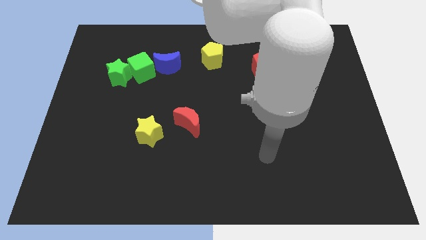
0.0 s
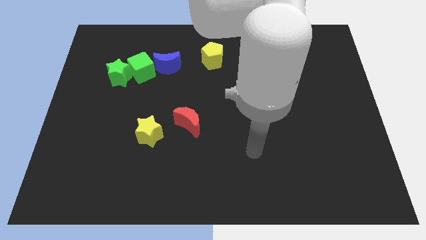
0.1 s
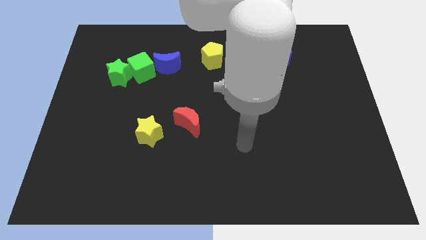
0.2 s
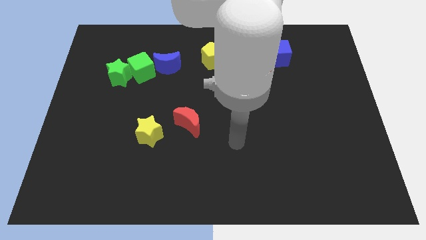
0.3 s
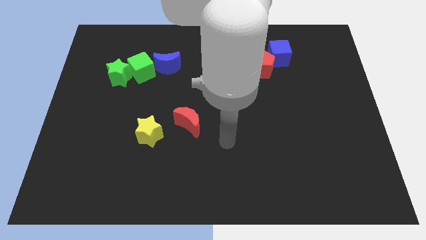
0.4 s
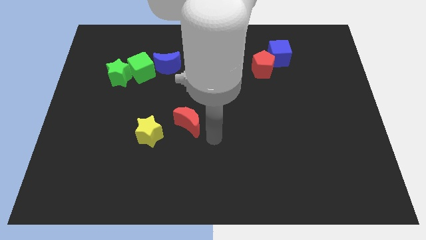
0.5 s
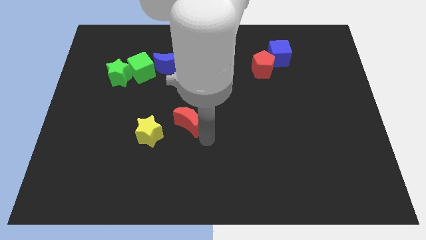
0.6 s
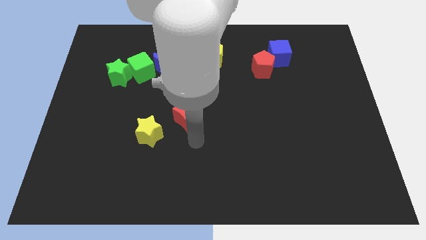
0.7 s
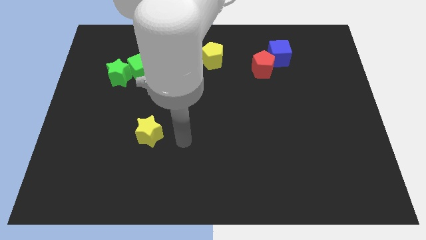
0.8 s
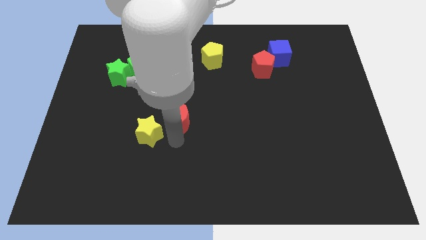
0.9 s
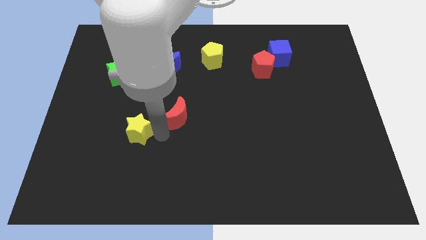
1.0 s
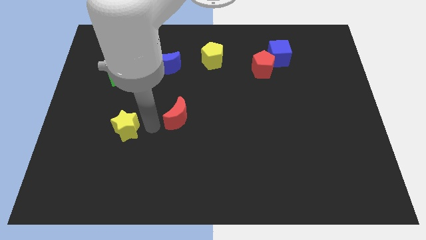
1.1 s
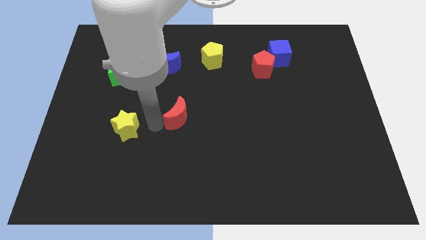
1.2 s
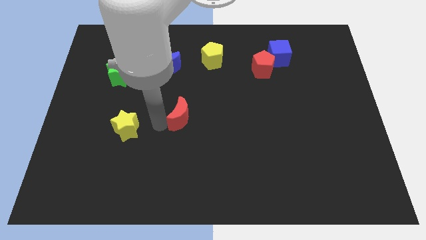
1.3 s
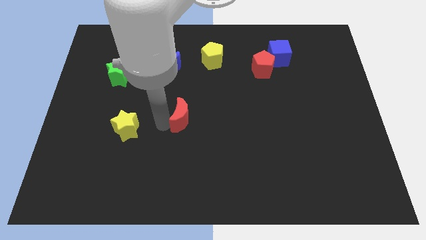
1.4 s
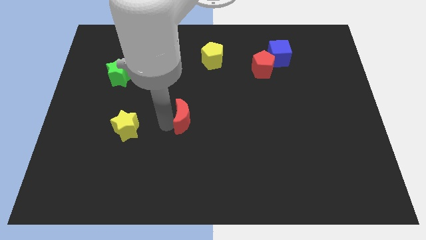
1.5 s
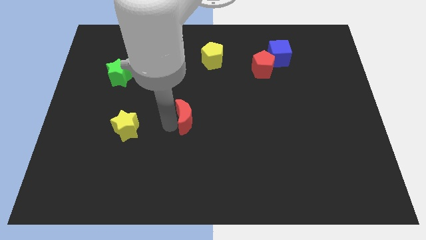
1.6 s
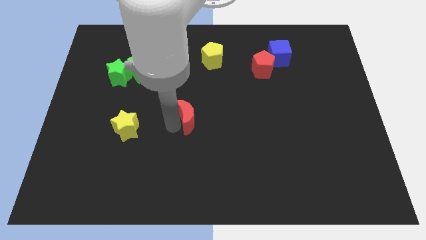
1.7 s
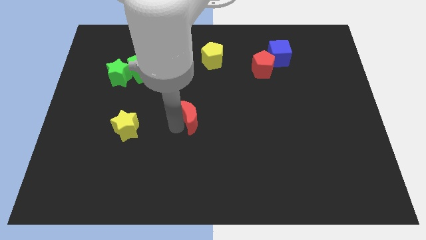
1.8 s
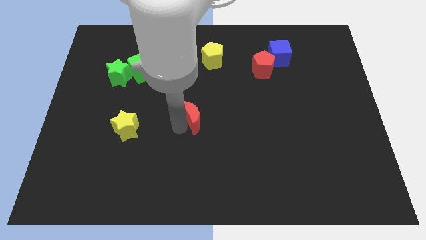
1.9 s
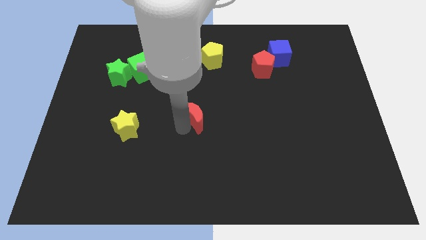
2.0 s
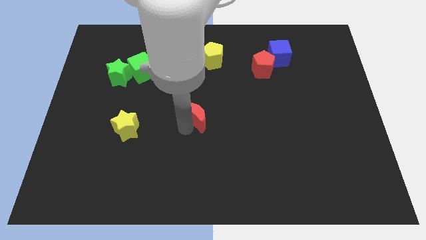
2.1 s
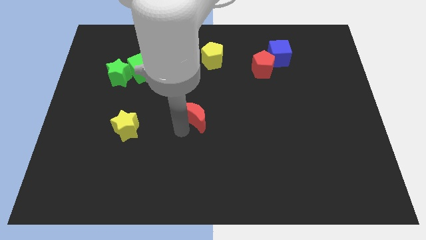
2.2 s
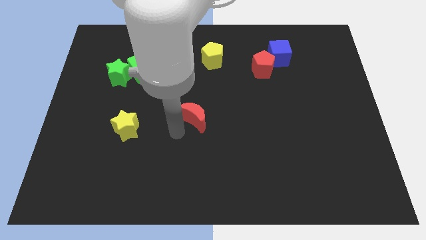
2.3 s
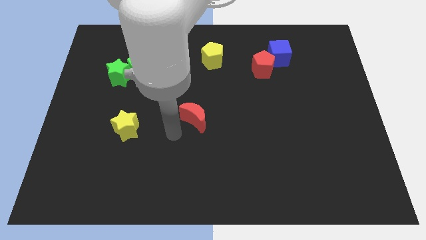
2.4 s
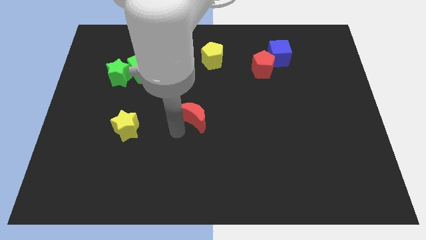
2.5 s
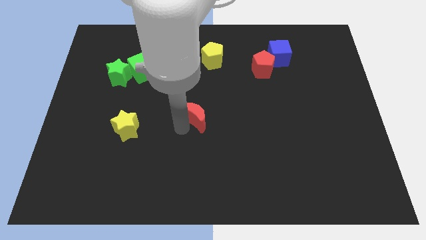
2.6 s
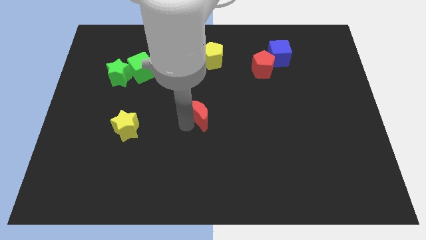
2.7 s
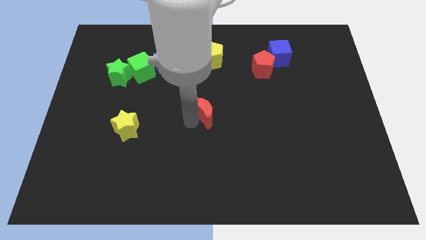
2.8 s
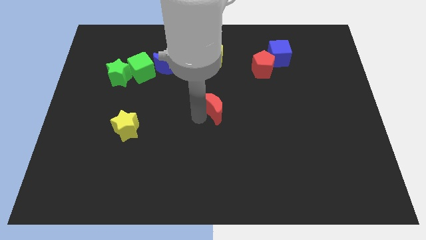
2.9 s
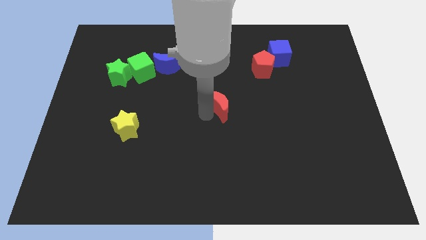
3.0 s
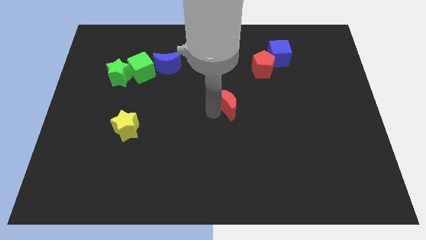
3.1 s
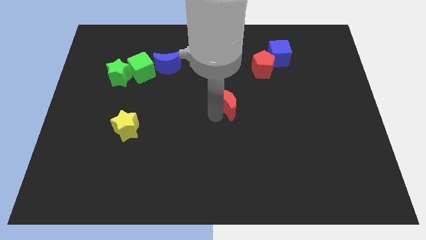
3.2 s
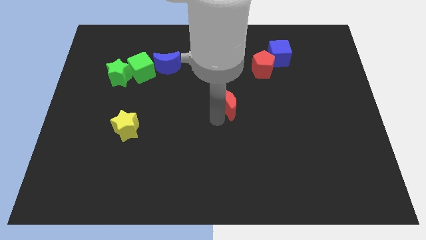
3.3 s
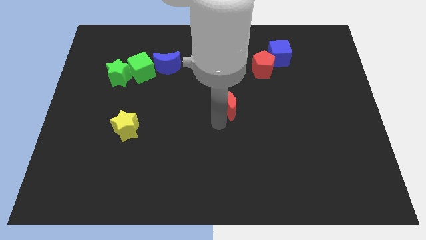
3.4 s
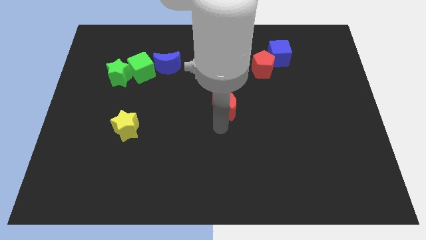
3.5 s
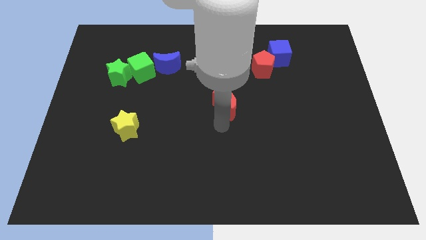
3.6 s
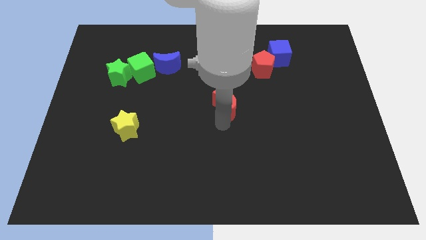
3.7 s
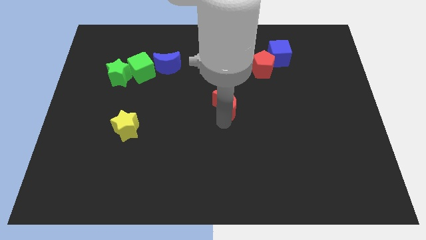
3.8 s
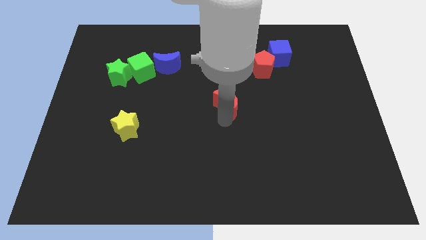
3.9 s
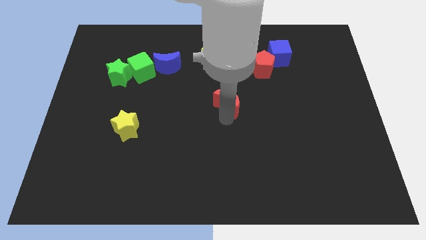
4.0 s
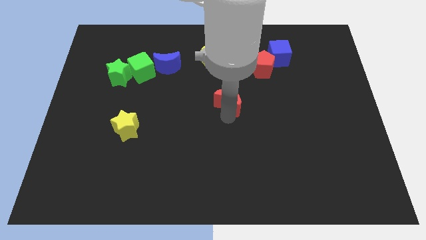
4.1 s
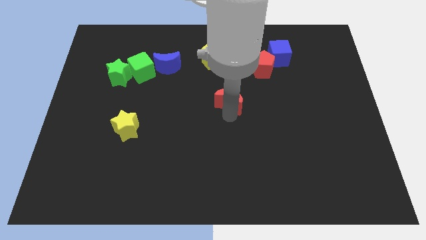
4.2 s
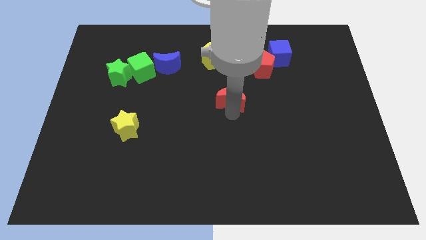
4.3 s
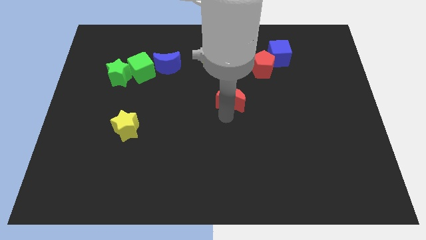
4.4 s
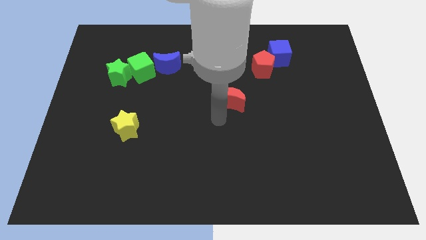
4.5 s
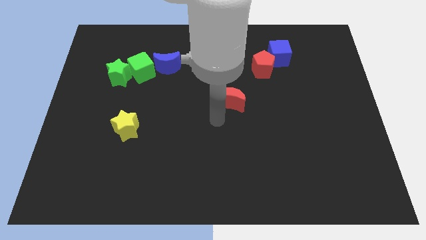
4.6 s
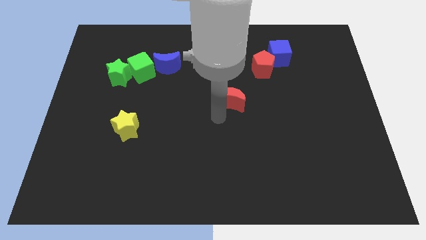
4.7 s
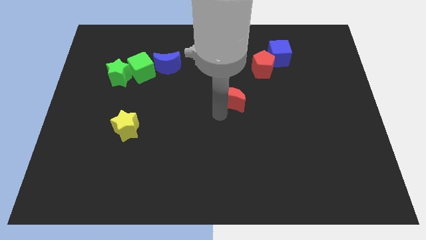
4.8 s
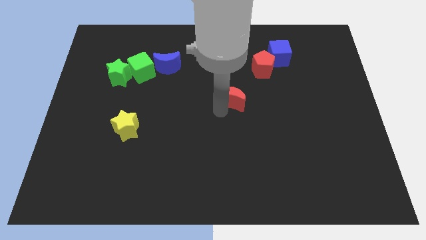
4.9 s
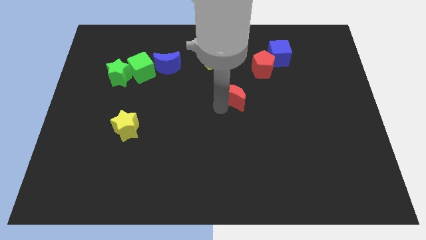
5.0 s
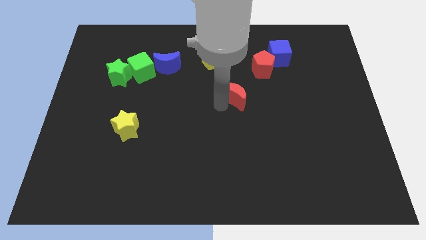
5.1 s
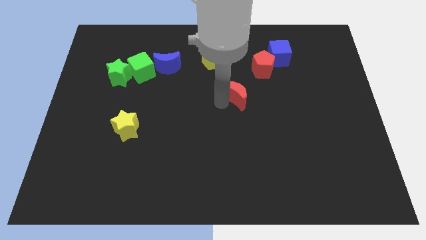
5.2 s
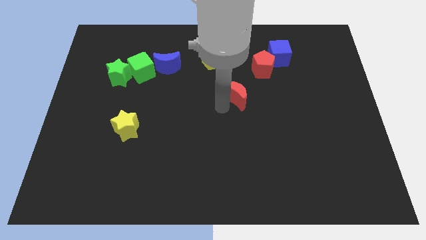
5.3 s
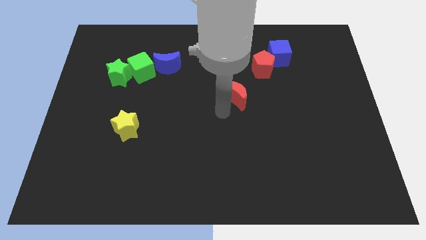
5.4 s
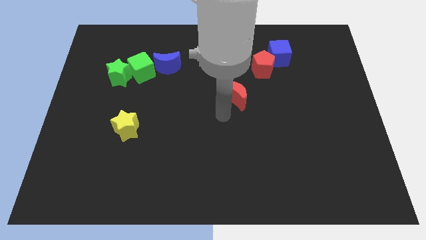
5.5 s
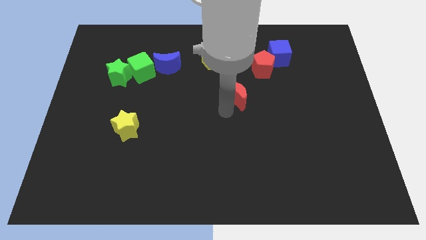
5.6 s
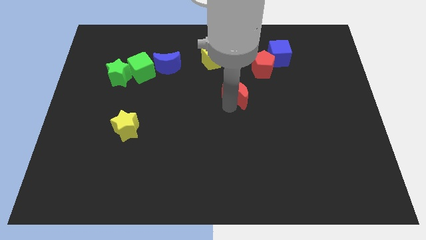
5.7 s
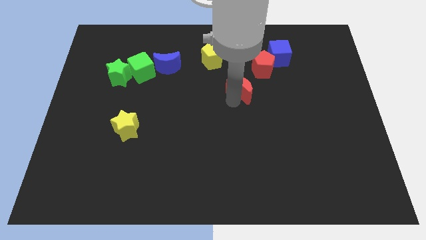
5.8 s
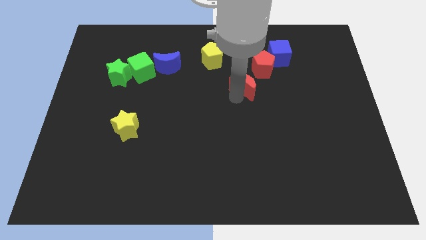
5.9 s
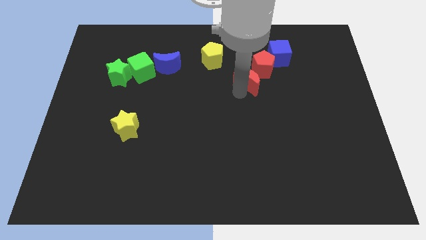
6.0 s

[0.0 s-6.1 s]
push the red moon diagonally down and to the left of the blue cube

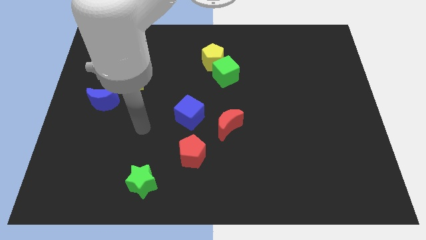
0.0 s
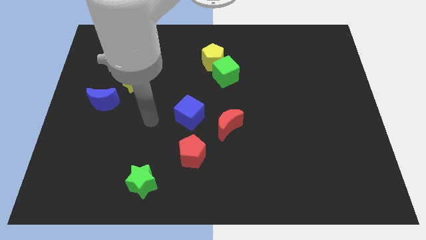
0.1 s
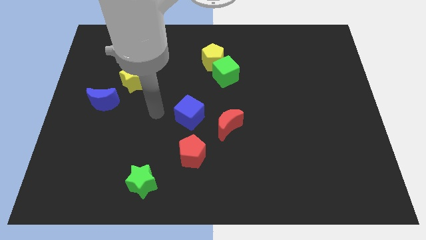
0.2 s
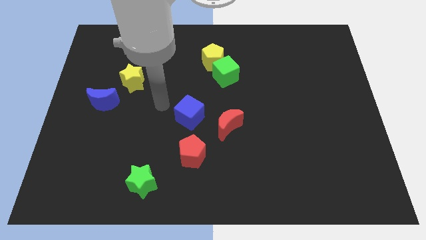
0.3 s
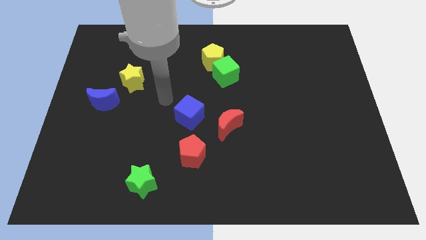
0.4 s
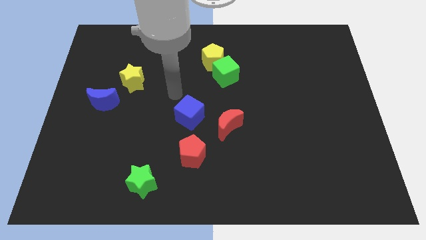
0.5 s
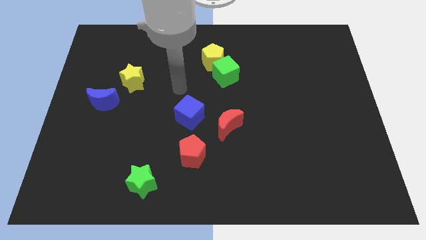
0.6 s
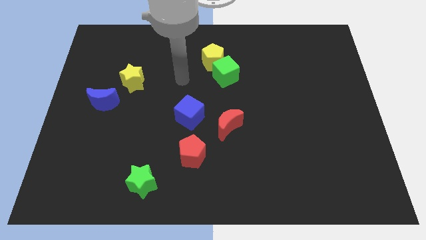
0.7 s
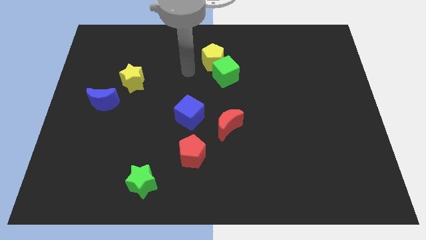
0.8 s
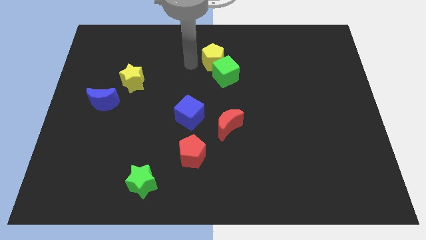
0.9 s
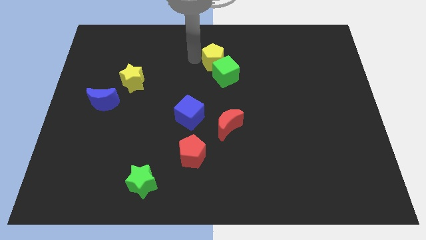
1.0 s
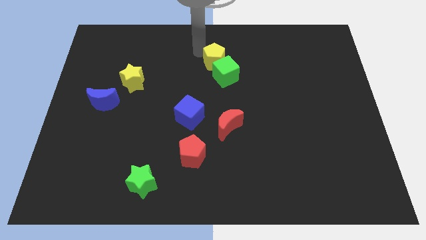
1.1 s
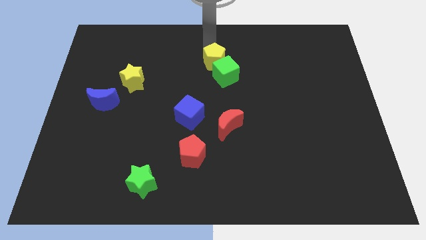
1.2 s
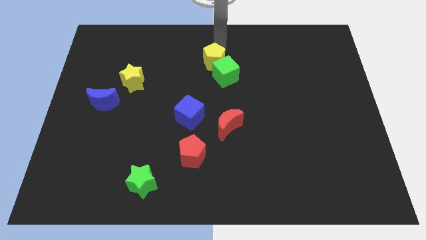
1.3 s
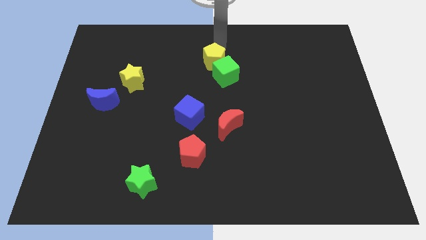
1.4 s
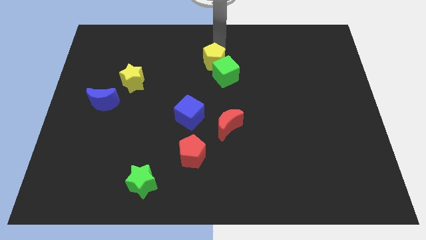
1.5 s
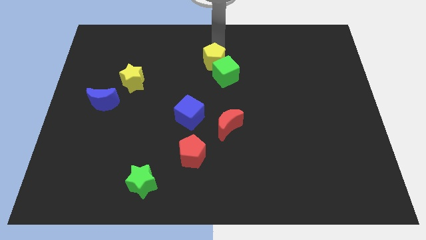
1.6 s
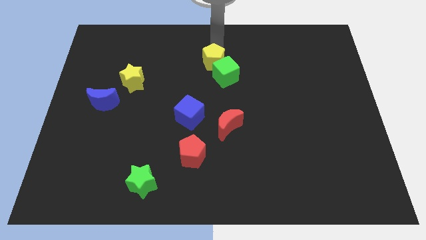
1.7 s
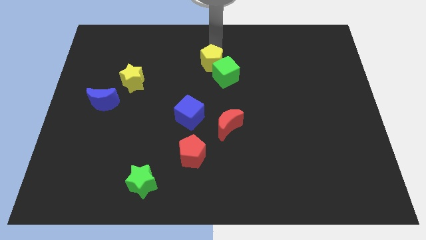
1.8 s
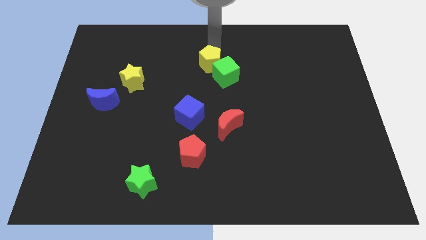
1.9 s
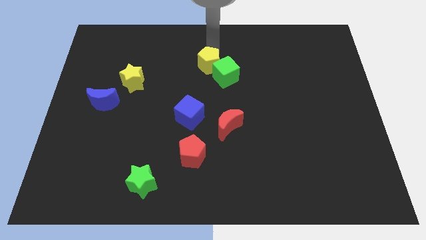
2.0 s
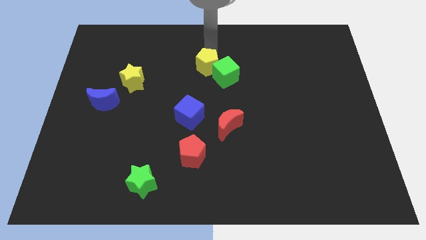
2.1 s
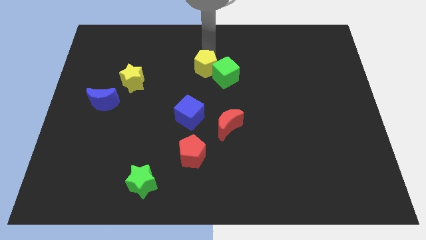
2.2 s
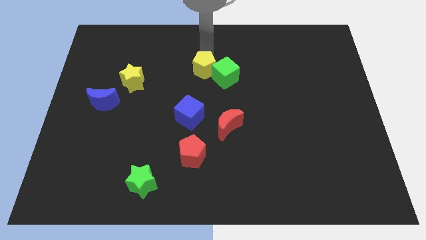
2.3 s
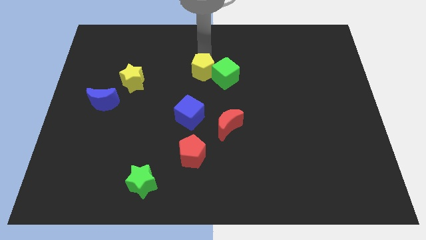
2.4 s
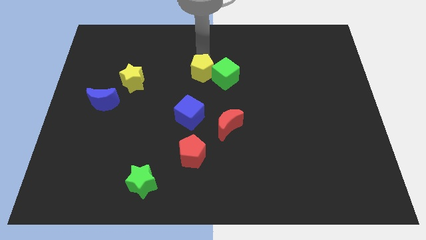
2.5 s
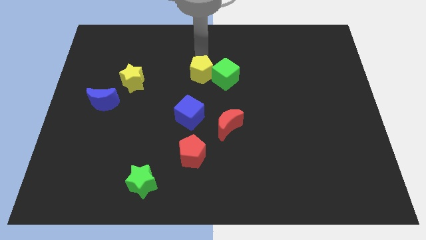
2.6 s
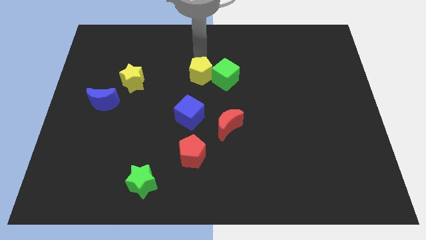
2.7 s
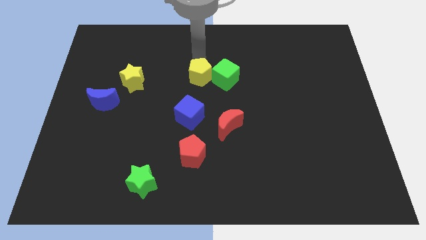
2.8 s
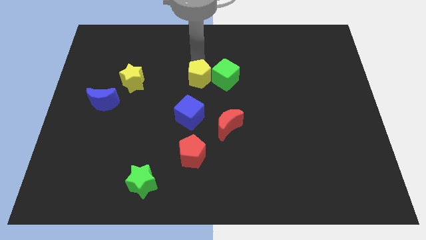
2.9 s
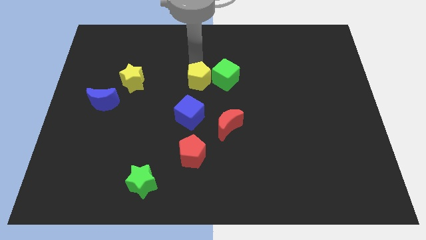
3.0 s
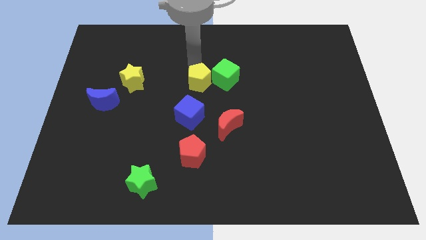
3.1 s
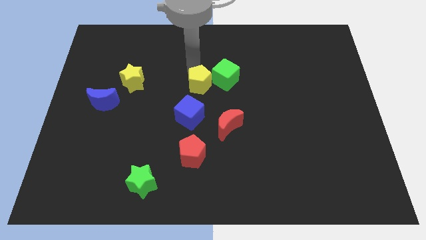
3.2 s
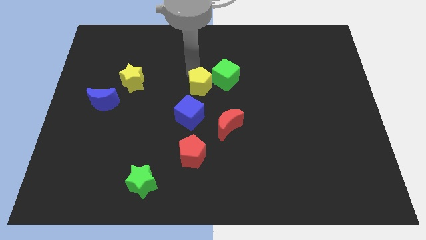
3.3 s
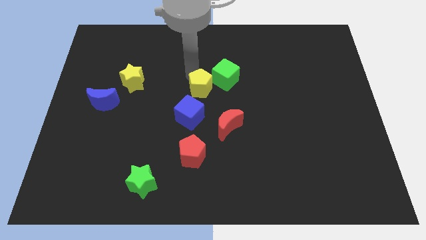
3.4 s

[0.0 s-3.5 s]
slide the yellow pentagon to the top right of the blue cube
